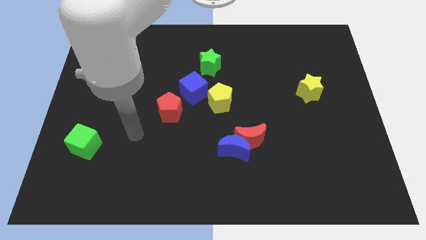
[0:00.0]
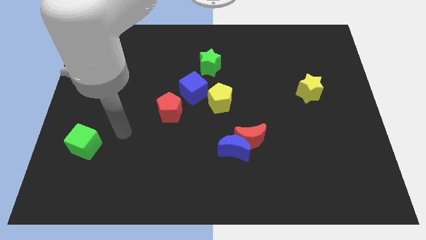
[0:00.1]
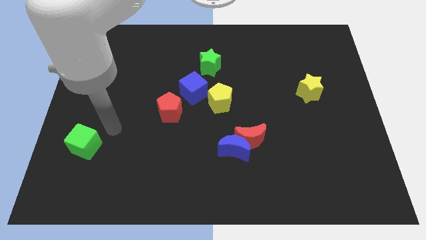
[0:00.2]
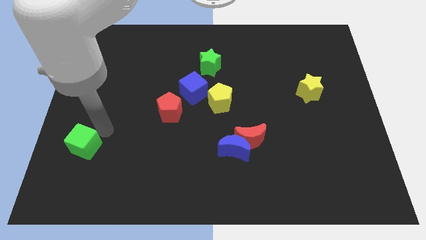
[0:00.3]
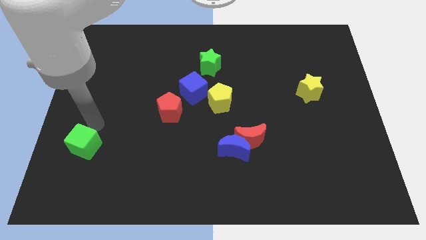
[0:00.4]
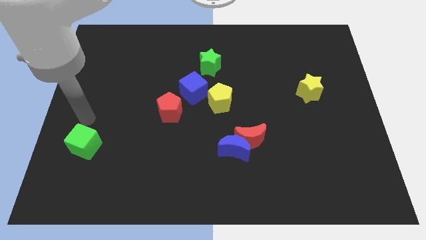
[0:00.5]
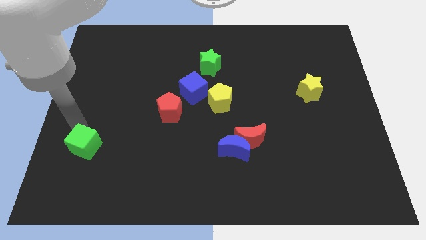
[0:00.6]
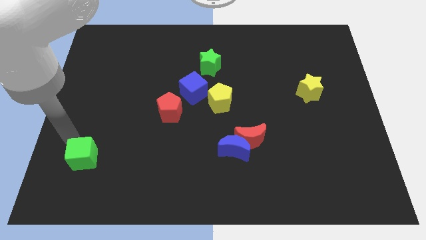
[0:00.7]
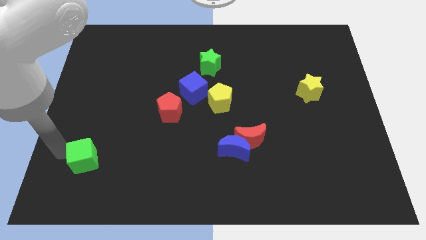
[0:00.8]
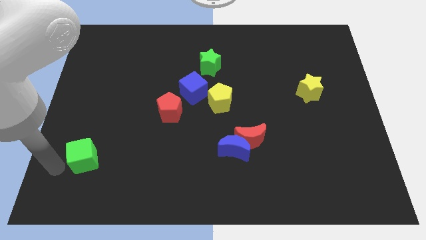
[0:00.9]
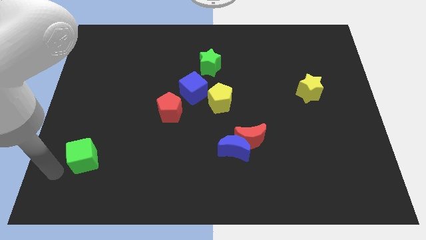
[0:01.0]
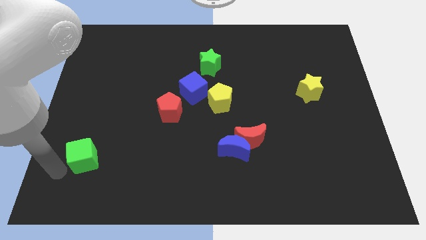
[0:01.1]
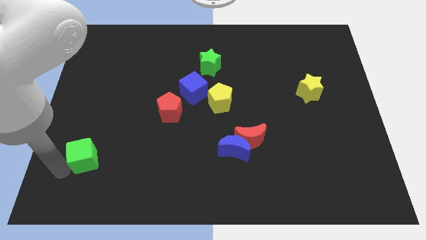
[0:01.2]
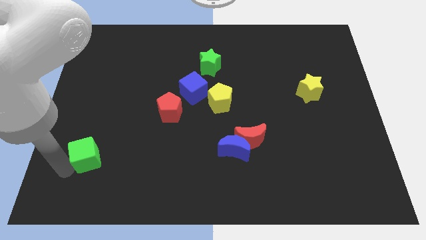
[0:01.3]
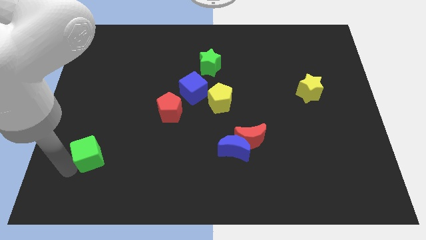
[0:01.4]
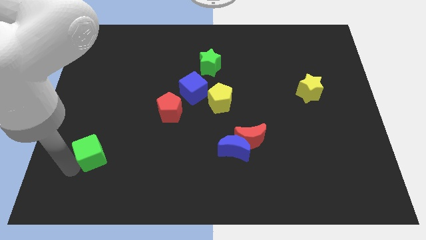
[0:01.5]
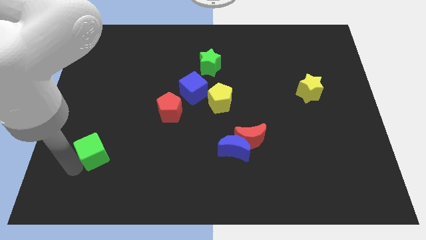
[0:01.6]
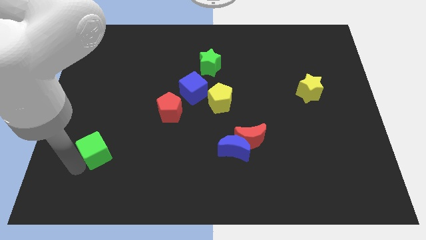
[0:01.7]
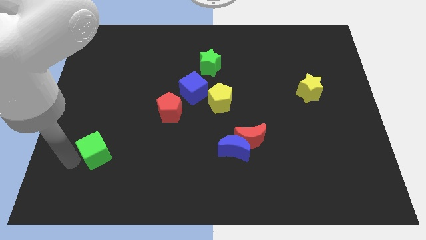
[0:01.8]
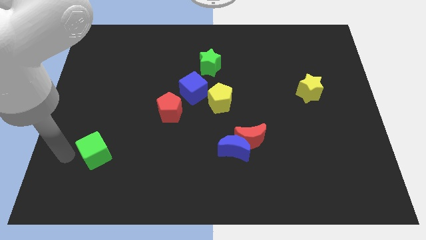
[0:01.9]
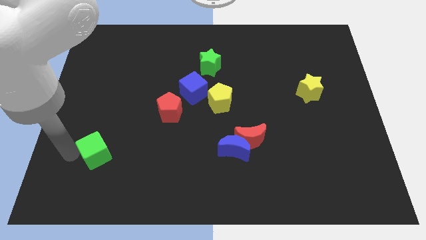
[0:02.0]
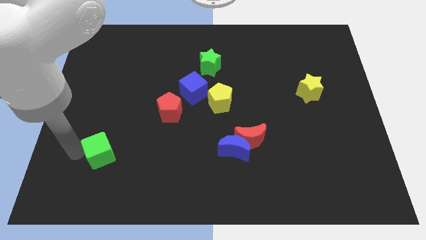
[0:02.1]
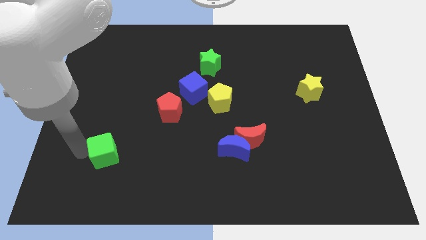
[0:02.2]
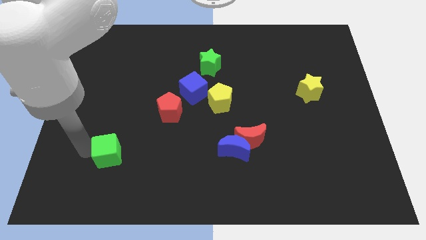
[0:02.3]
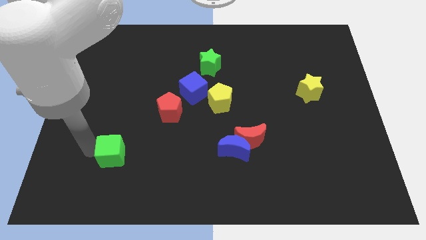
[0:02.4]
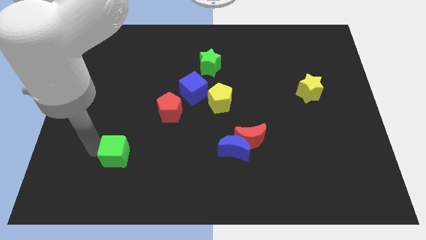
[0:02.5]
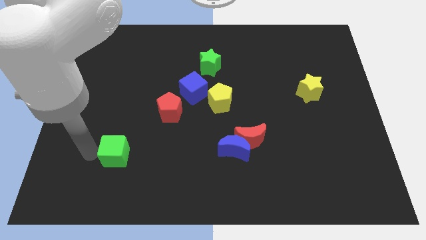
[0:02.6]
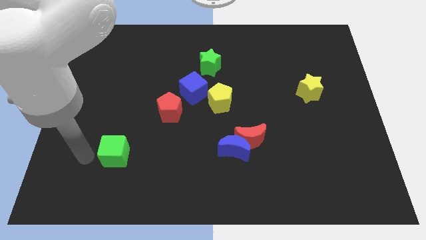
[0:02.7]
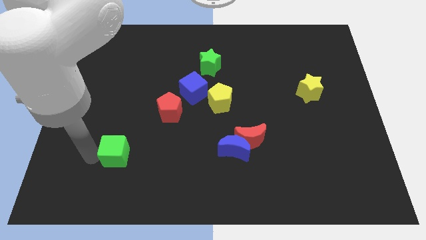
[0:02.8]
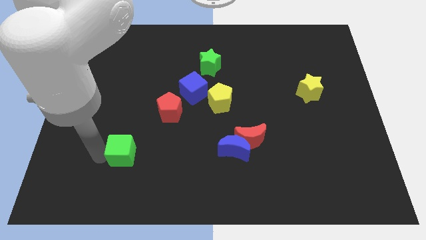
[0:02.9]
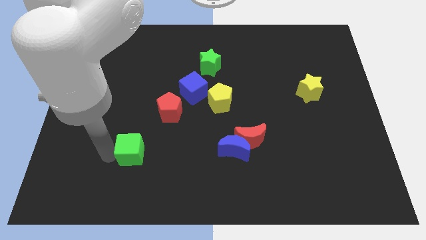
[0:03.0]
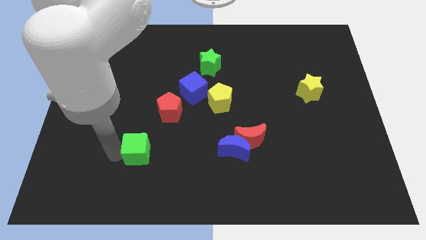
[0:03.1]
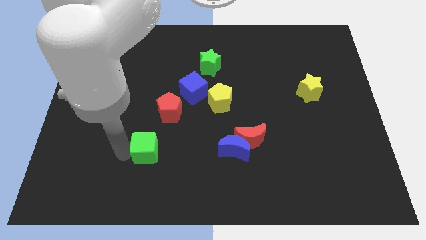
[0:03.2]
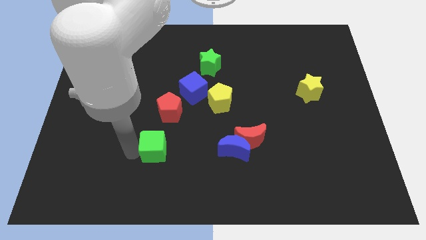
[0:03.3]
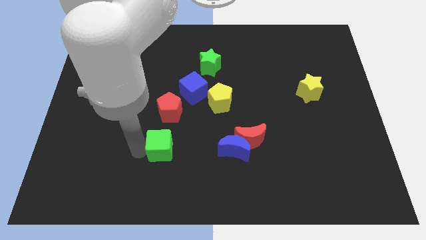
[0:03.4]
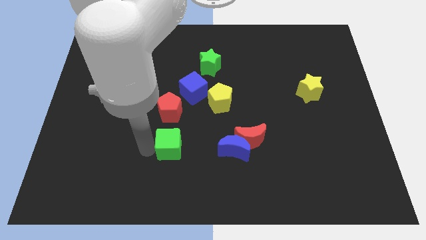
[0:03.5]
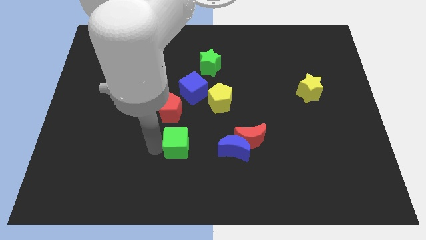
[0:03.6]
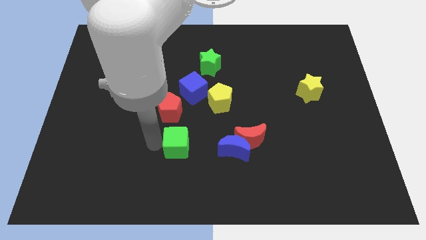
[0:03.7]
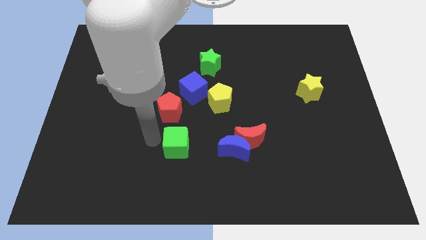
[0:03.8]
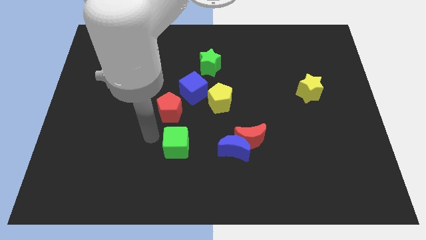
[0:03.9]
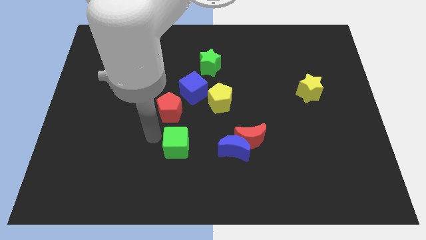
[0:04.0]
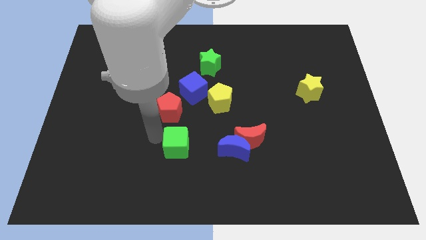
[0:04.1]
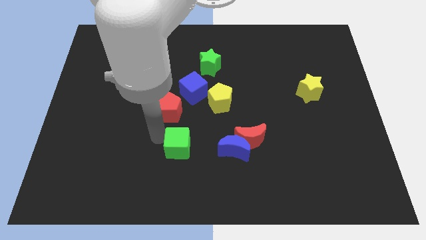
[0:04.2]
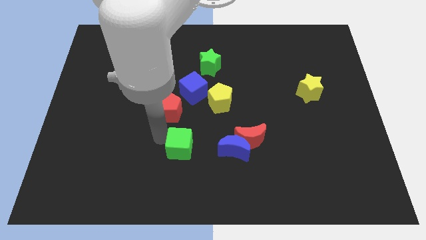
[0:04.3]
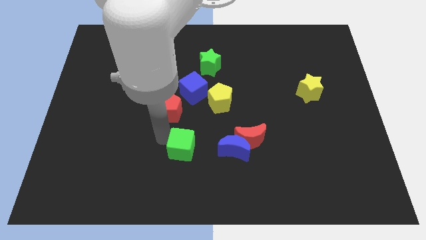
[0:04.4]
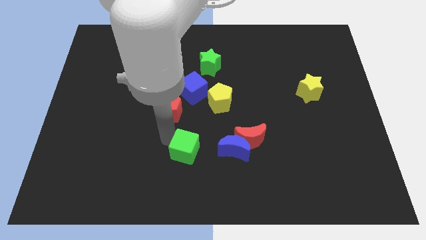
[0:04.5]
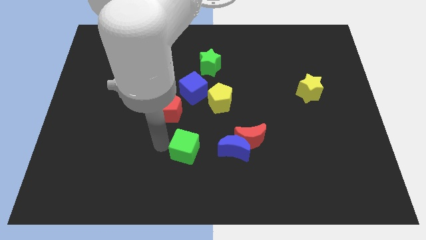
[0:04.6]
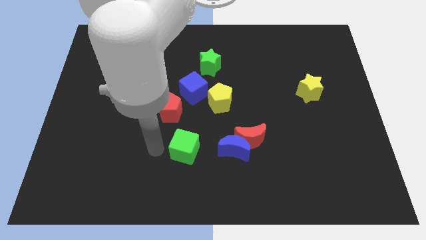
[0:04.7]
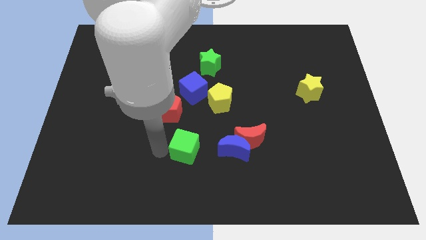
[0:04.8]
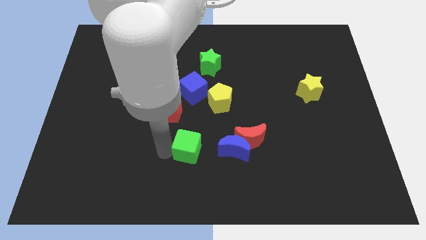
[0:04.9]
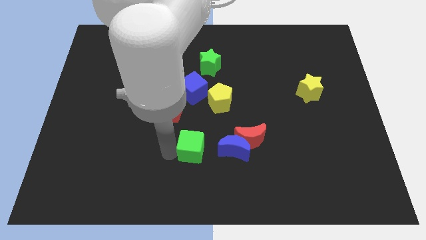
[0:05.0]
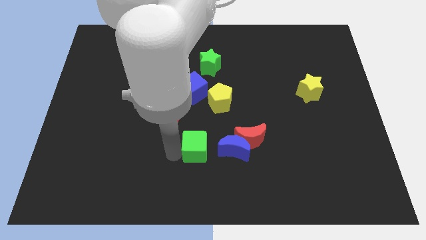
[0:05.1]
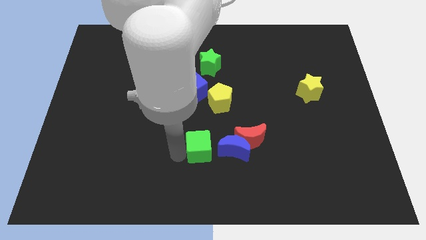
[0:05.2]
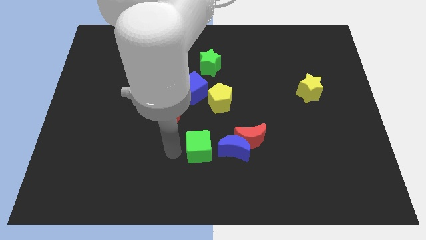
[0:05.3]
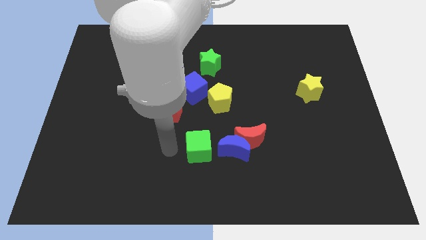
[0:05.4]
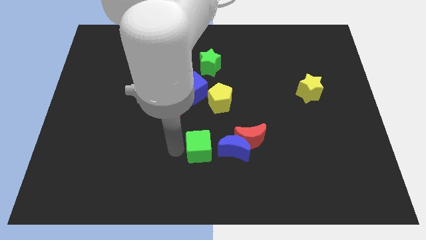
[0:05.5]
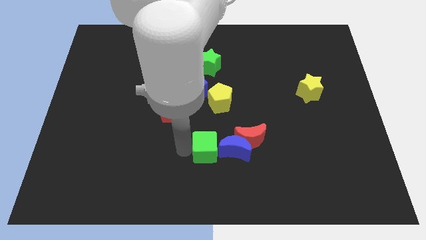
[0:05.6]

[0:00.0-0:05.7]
push the green cube towards the blue moon

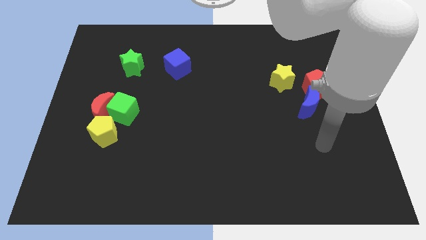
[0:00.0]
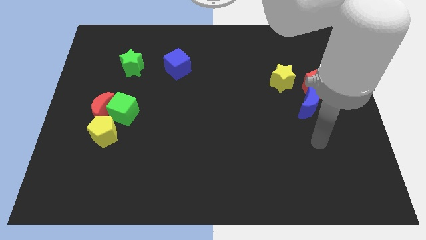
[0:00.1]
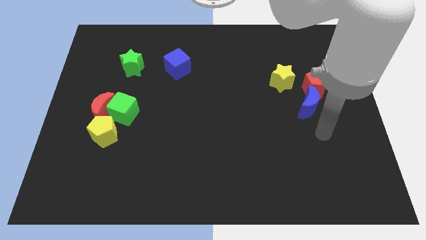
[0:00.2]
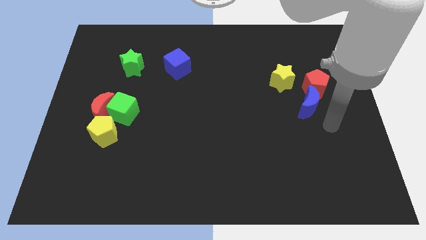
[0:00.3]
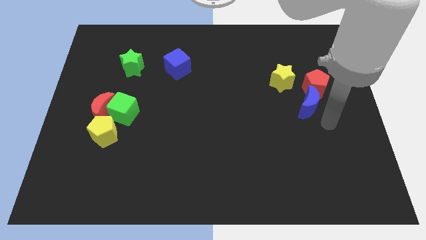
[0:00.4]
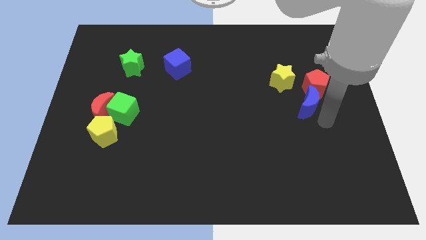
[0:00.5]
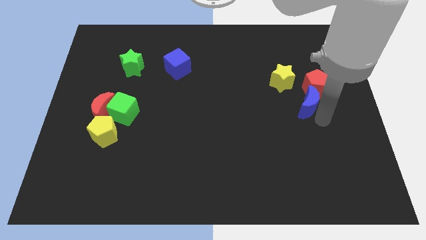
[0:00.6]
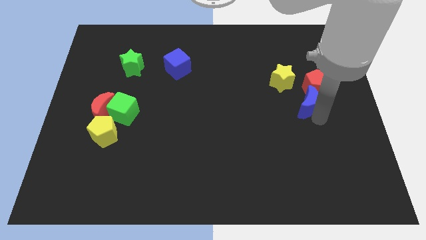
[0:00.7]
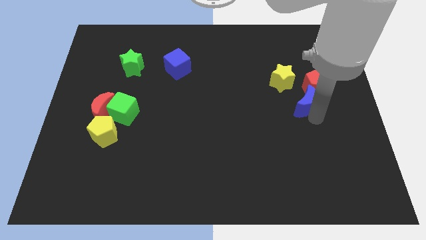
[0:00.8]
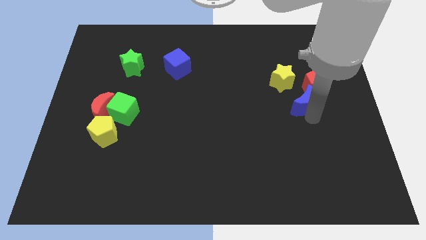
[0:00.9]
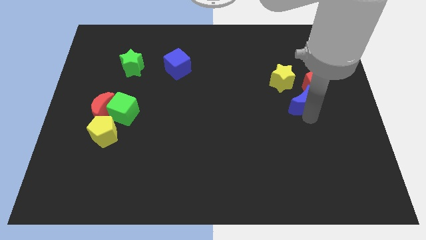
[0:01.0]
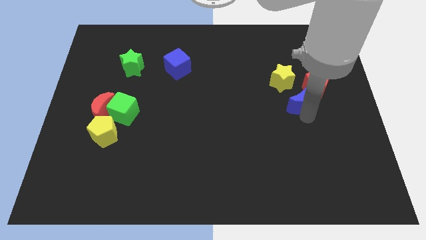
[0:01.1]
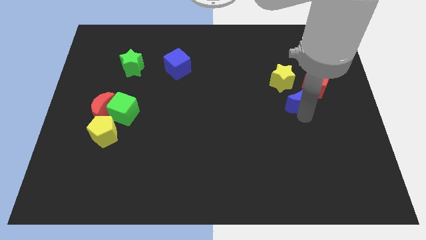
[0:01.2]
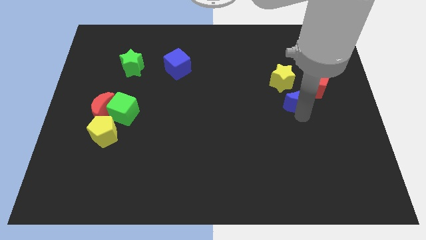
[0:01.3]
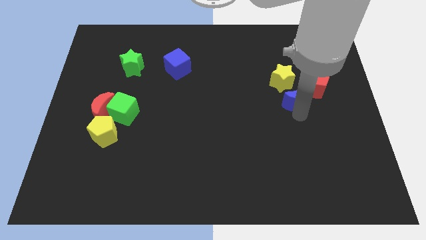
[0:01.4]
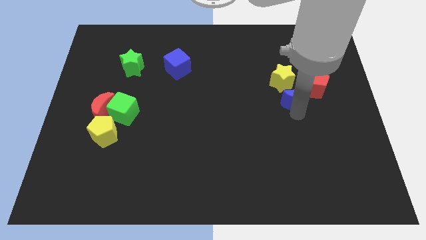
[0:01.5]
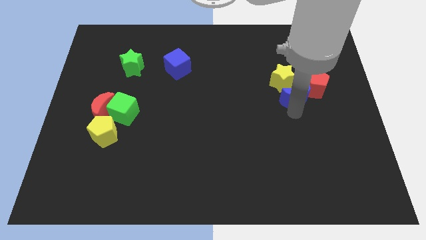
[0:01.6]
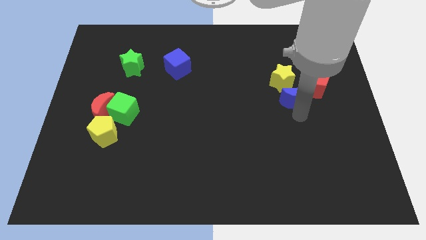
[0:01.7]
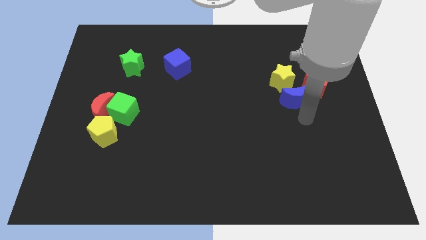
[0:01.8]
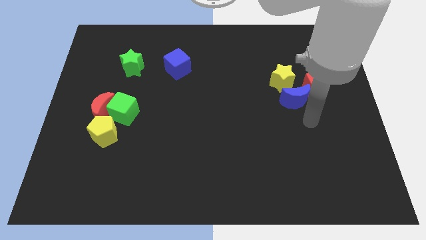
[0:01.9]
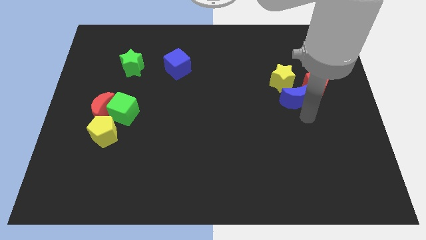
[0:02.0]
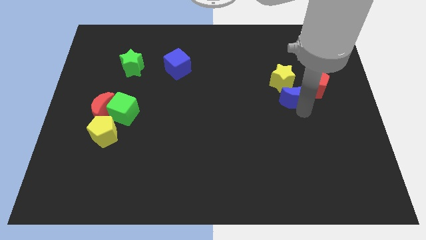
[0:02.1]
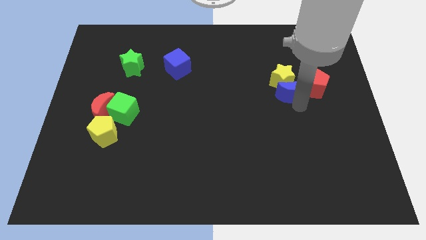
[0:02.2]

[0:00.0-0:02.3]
push the blue moon next to the yellow star
